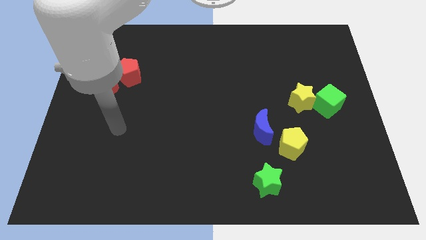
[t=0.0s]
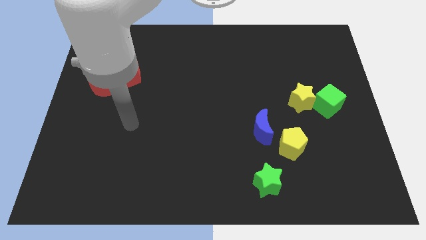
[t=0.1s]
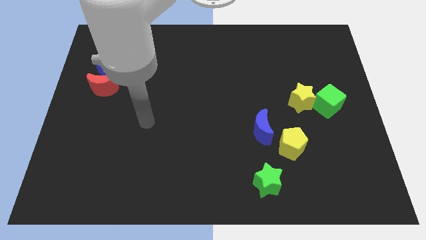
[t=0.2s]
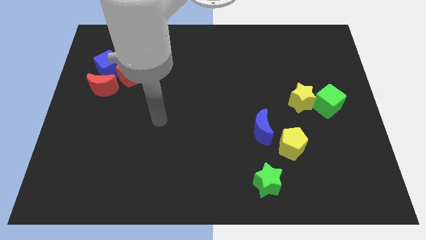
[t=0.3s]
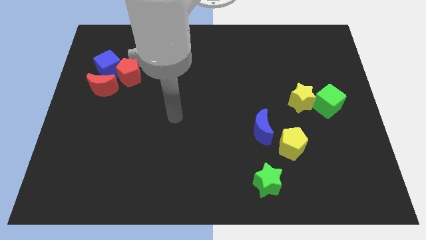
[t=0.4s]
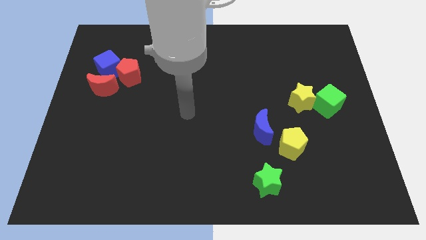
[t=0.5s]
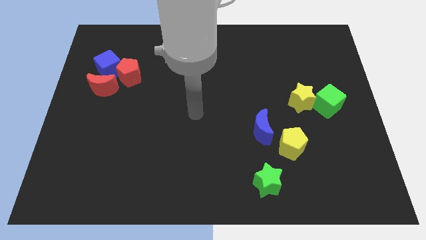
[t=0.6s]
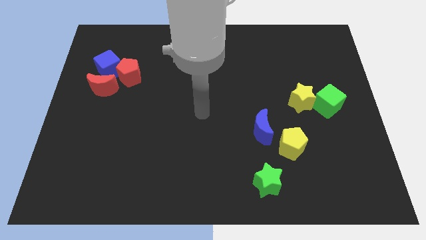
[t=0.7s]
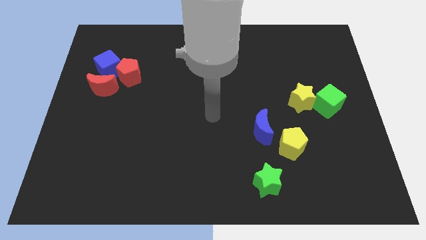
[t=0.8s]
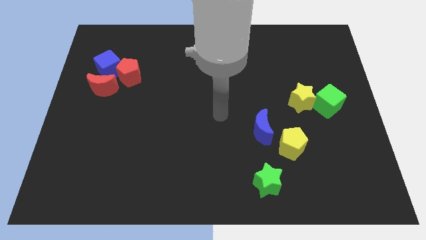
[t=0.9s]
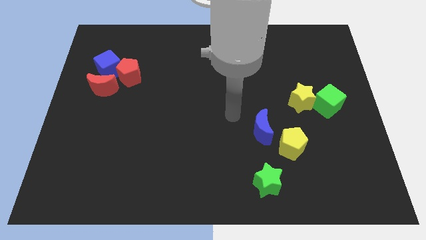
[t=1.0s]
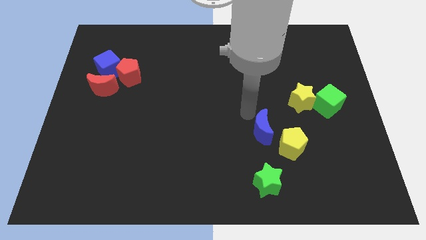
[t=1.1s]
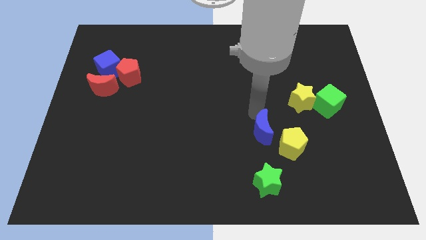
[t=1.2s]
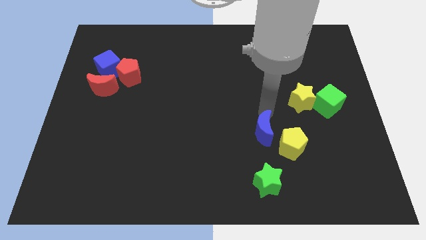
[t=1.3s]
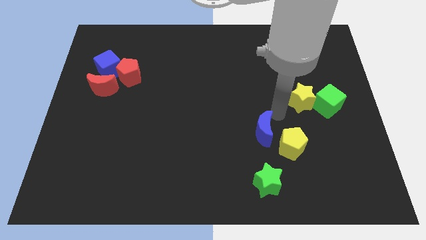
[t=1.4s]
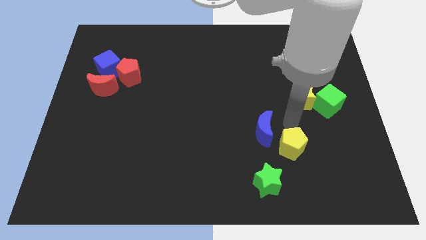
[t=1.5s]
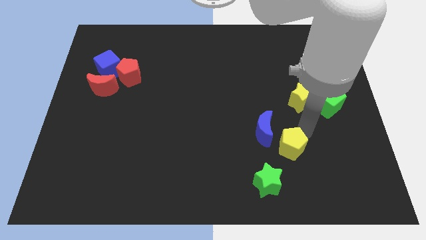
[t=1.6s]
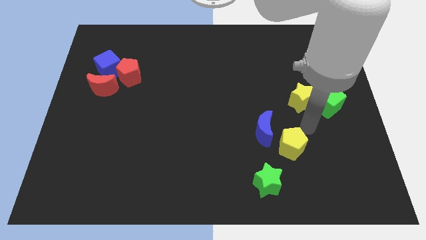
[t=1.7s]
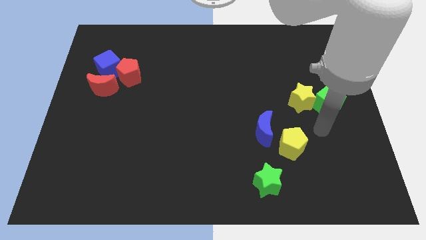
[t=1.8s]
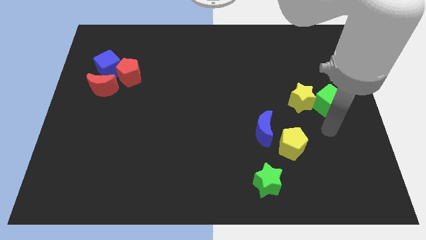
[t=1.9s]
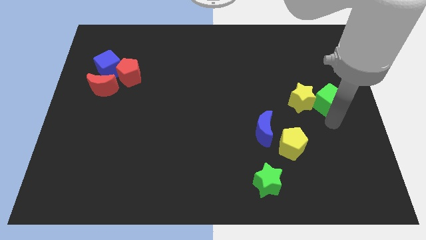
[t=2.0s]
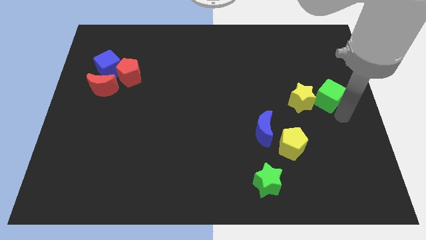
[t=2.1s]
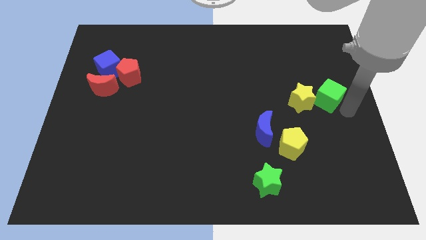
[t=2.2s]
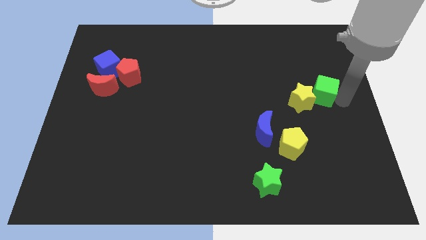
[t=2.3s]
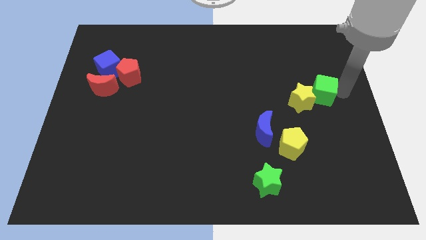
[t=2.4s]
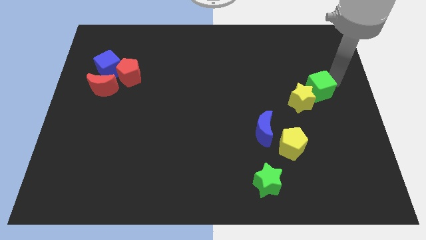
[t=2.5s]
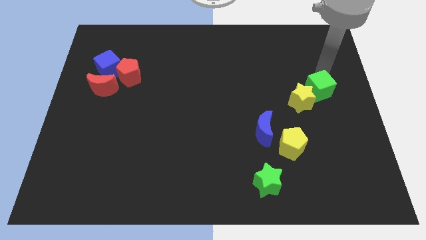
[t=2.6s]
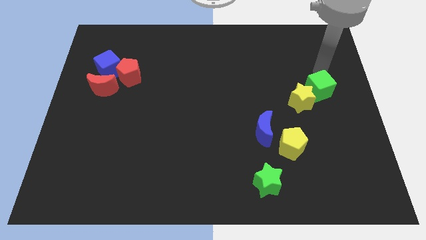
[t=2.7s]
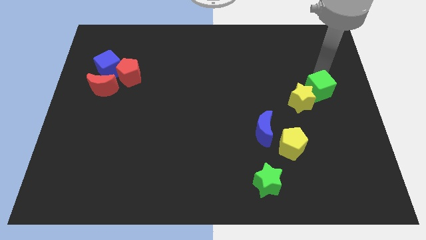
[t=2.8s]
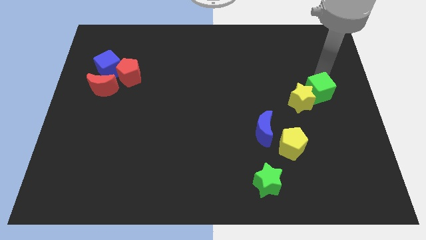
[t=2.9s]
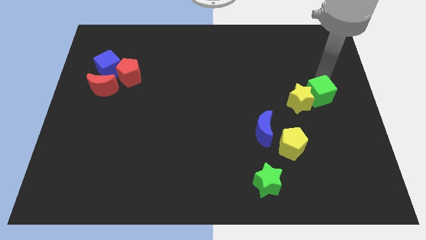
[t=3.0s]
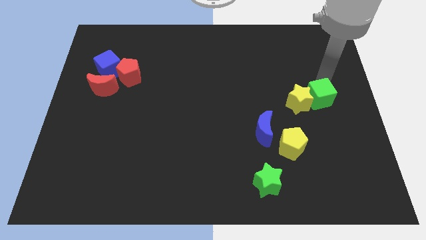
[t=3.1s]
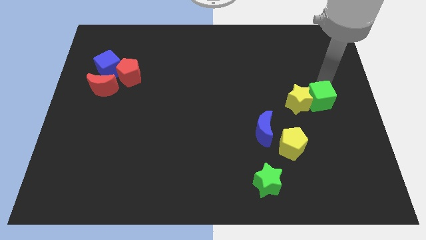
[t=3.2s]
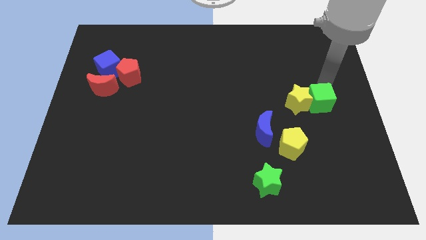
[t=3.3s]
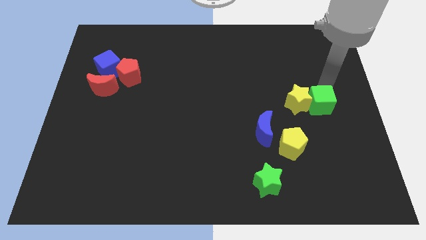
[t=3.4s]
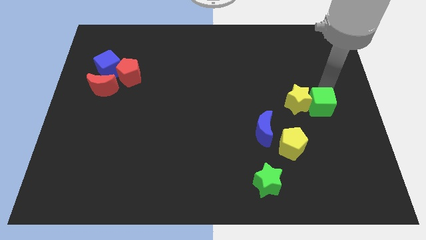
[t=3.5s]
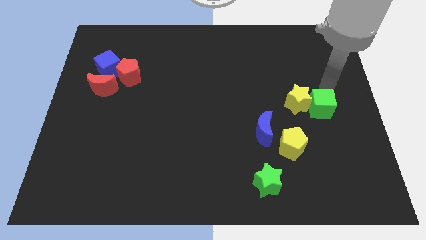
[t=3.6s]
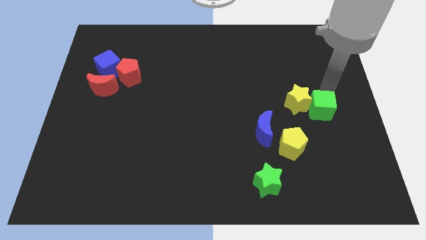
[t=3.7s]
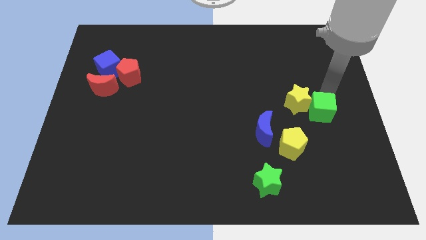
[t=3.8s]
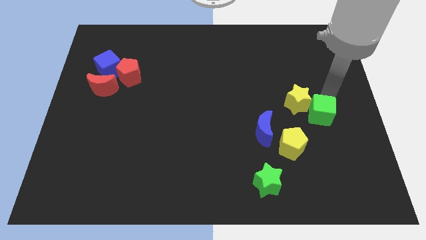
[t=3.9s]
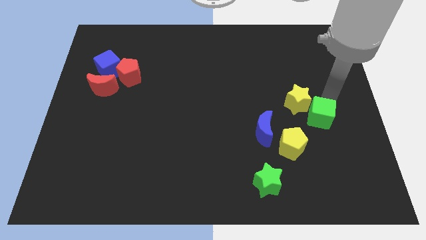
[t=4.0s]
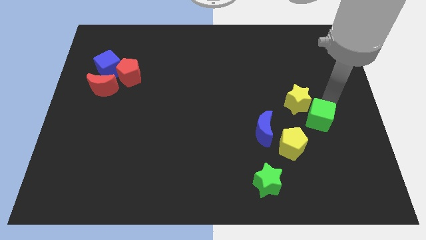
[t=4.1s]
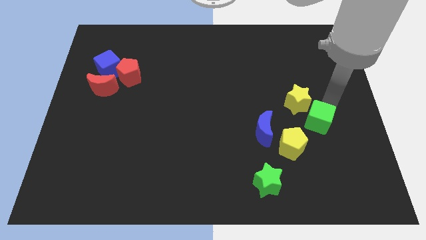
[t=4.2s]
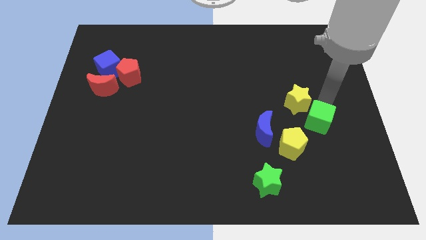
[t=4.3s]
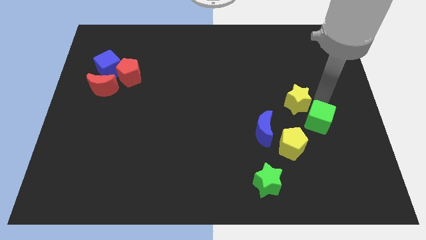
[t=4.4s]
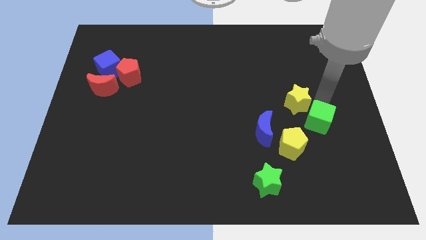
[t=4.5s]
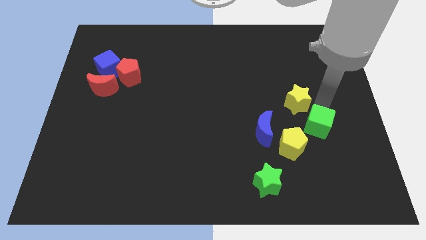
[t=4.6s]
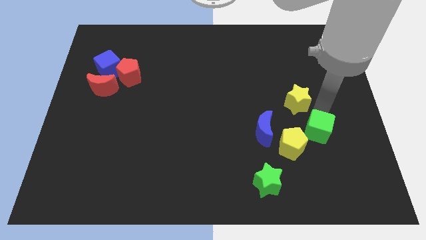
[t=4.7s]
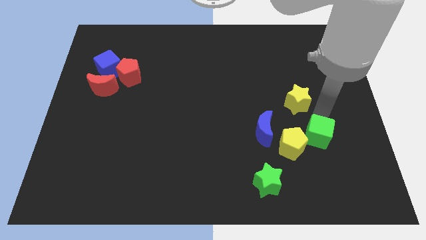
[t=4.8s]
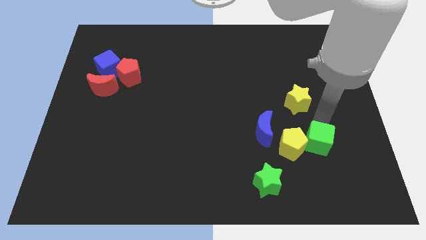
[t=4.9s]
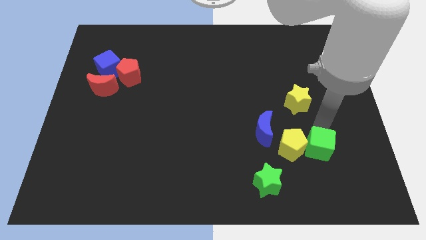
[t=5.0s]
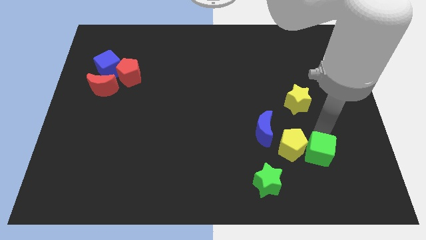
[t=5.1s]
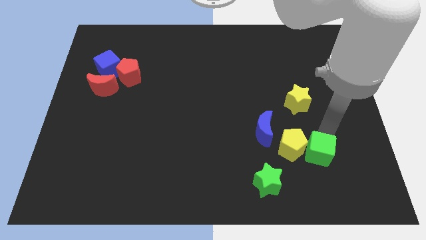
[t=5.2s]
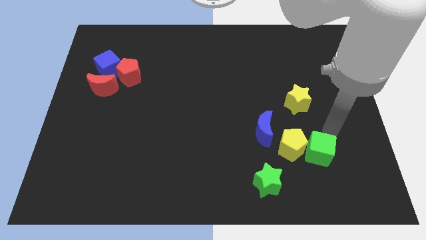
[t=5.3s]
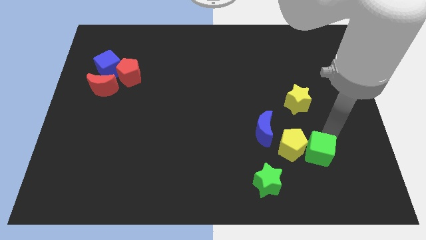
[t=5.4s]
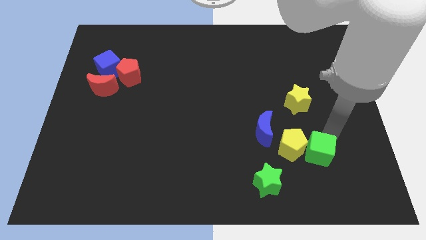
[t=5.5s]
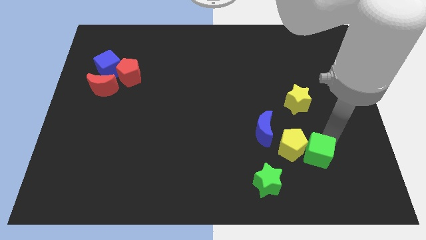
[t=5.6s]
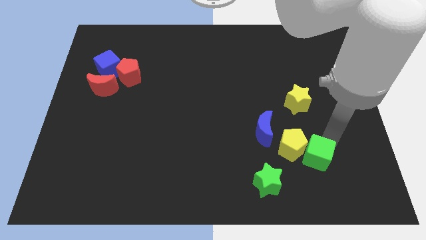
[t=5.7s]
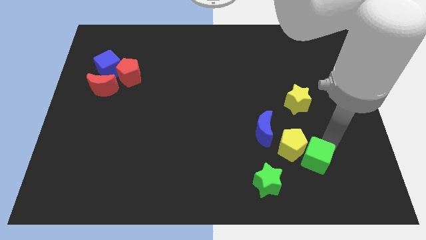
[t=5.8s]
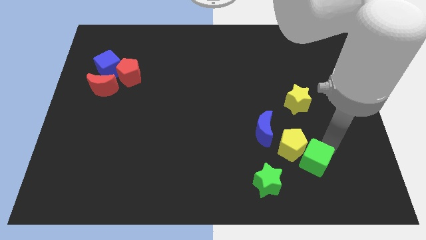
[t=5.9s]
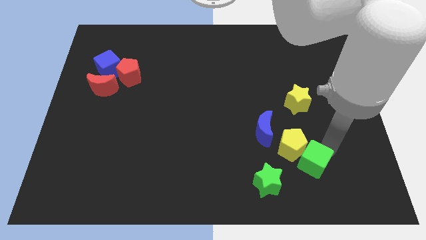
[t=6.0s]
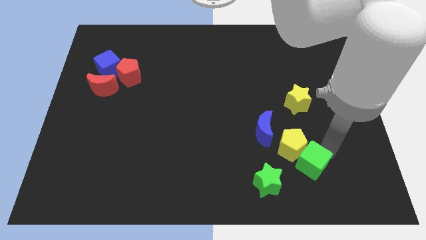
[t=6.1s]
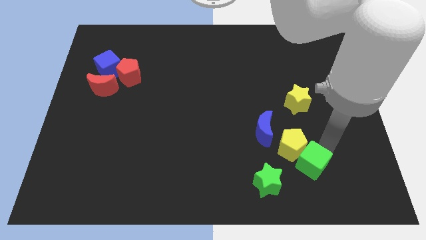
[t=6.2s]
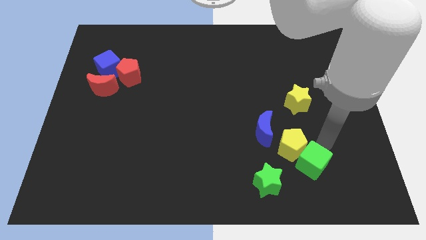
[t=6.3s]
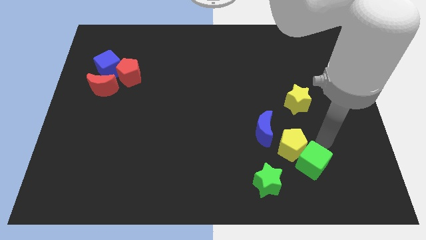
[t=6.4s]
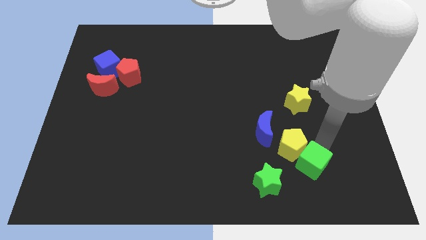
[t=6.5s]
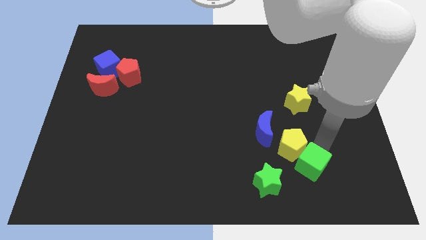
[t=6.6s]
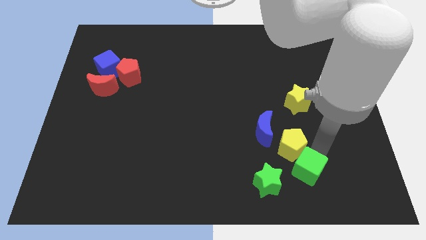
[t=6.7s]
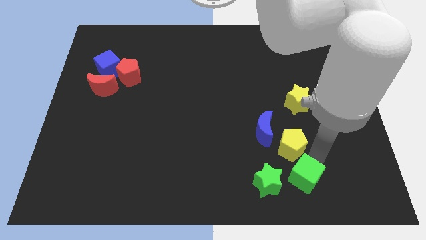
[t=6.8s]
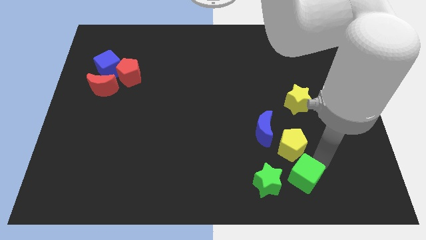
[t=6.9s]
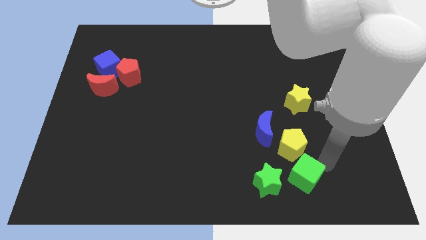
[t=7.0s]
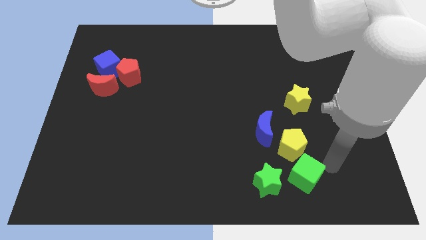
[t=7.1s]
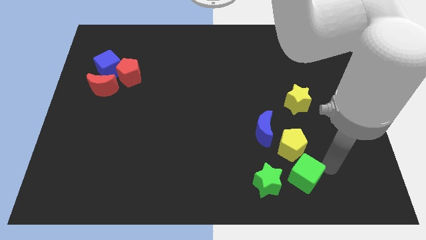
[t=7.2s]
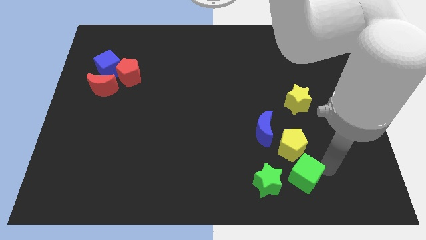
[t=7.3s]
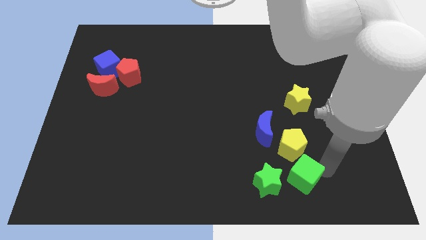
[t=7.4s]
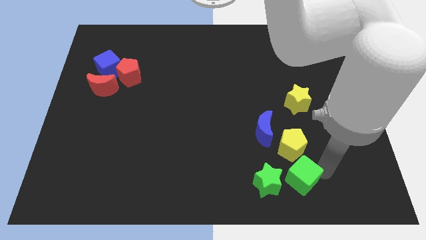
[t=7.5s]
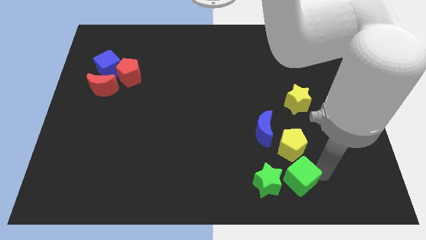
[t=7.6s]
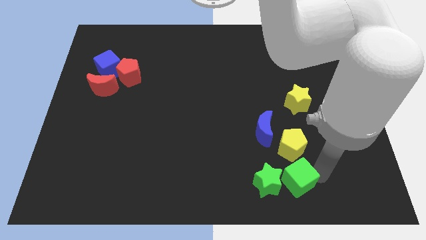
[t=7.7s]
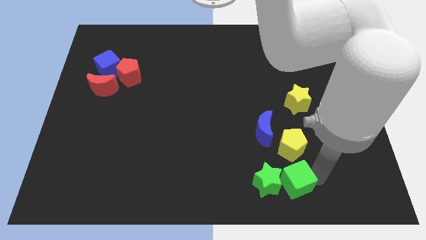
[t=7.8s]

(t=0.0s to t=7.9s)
slide the green cube next to the green star
